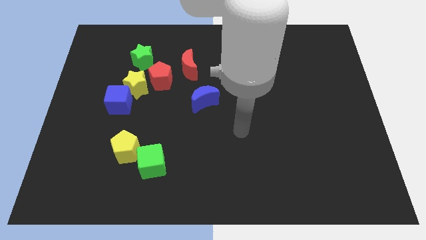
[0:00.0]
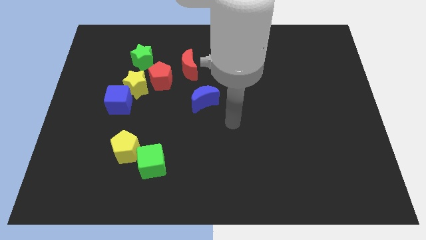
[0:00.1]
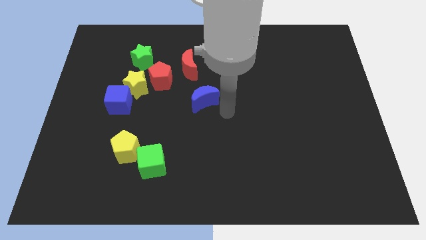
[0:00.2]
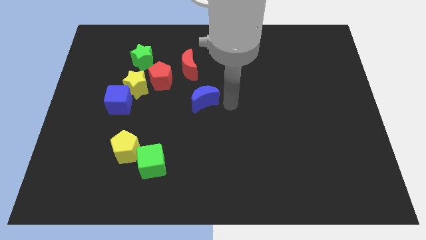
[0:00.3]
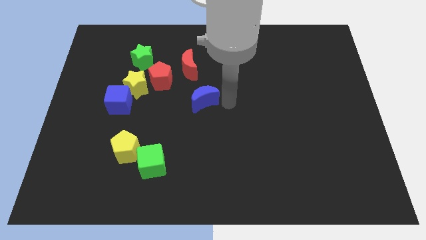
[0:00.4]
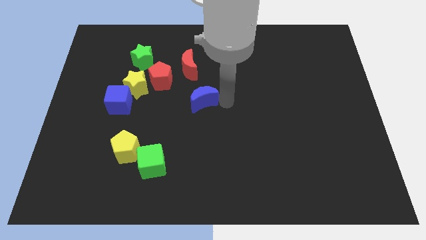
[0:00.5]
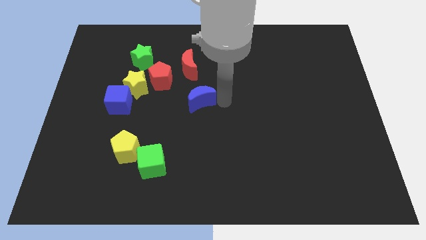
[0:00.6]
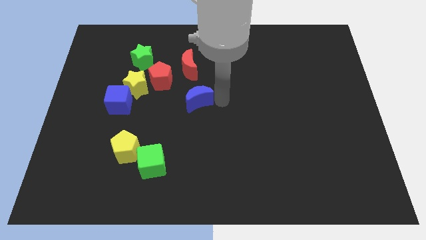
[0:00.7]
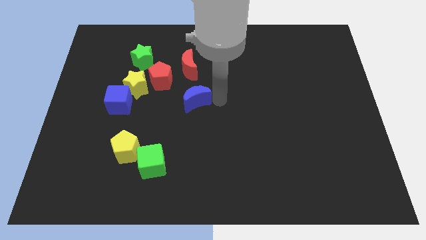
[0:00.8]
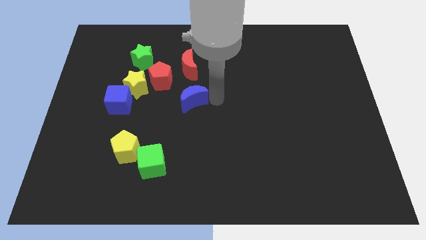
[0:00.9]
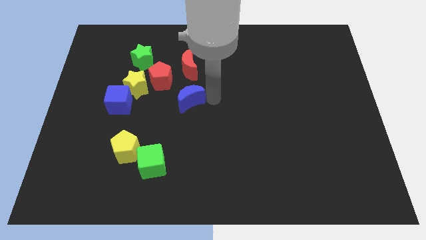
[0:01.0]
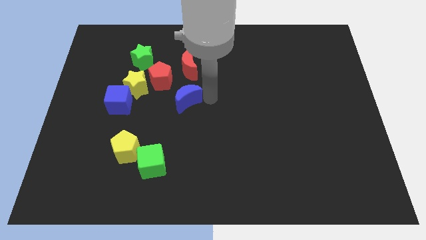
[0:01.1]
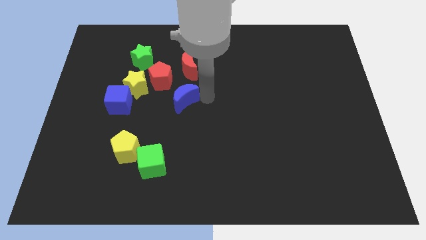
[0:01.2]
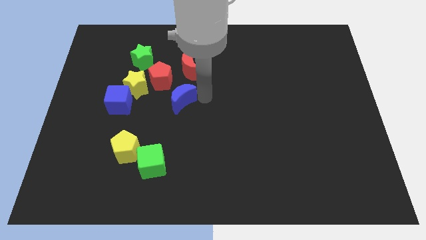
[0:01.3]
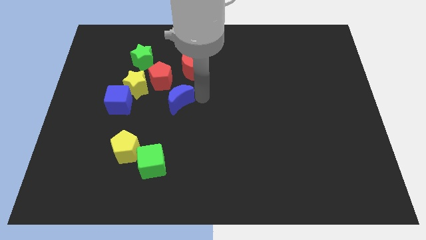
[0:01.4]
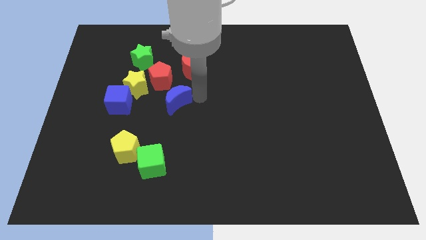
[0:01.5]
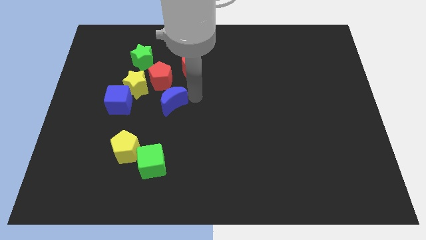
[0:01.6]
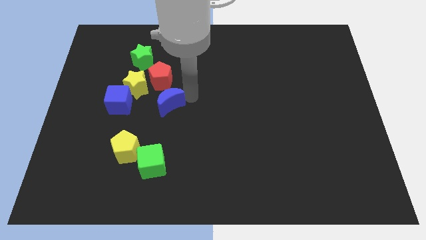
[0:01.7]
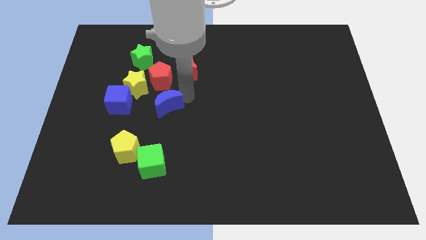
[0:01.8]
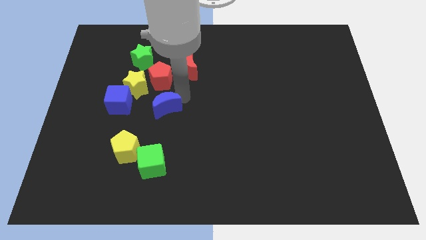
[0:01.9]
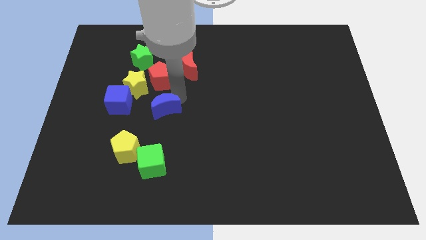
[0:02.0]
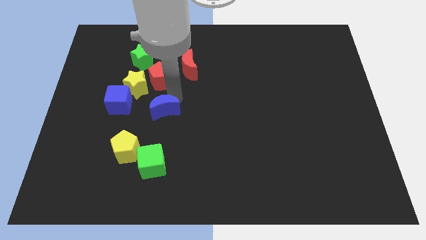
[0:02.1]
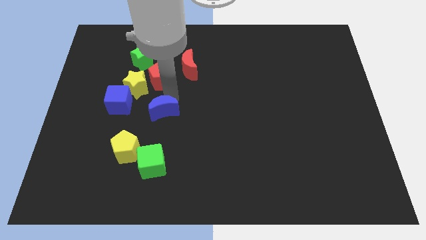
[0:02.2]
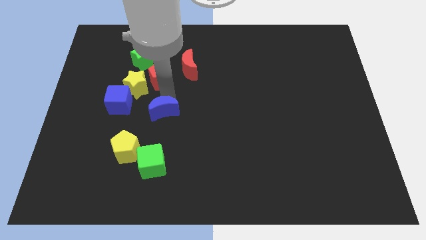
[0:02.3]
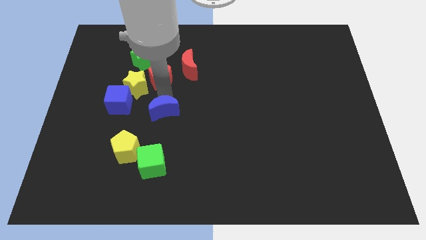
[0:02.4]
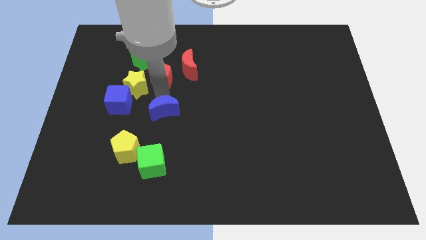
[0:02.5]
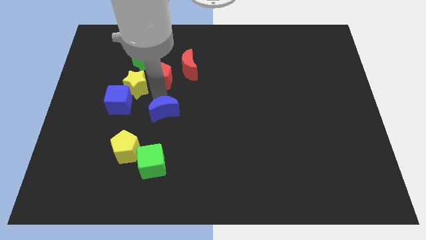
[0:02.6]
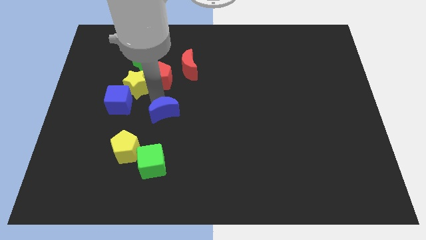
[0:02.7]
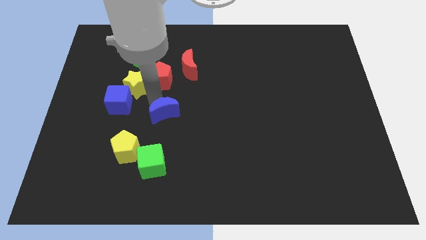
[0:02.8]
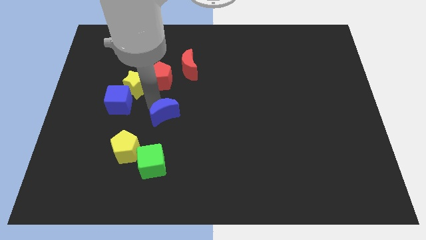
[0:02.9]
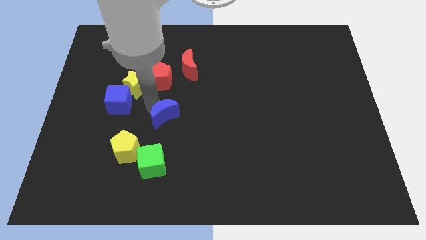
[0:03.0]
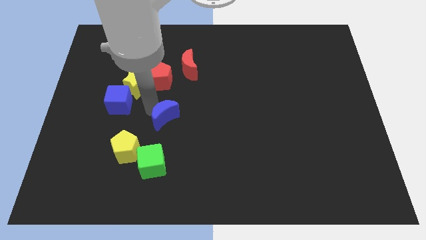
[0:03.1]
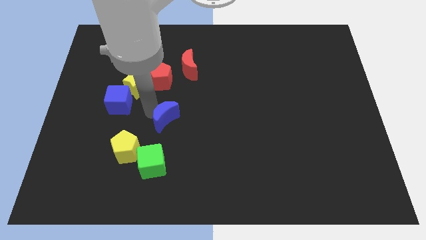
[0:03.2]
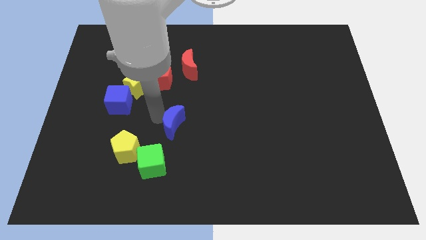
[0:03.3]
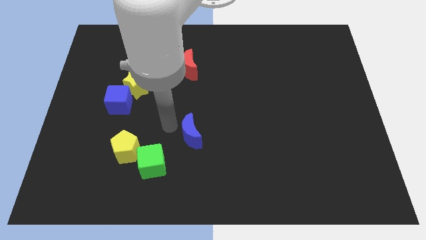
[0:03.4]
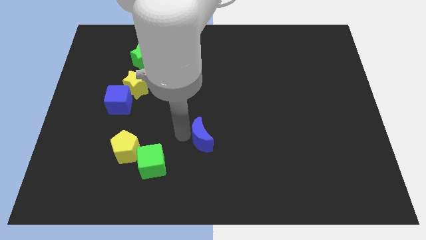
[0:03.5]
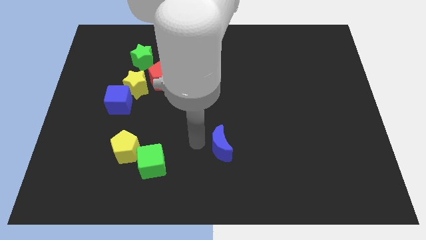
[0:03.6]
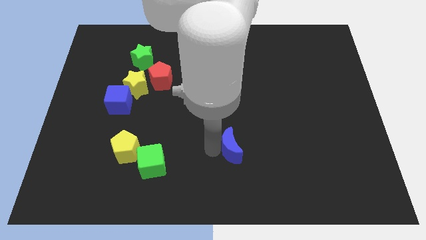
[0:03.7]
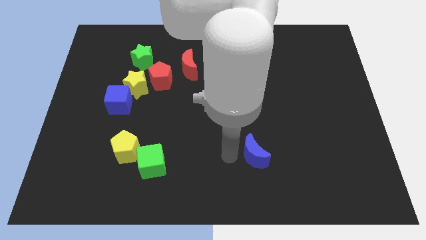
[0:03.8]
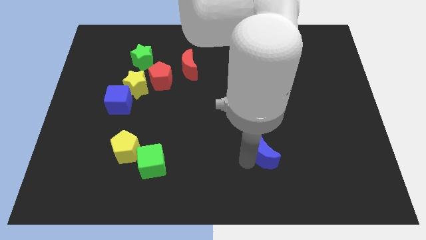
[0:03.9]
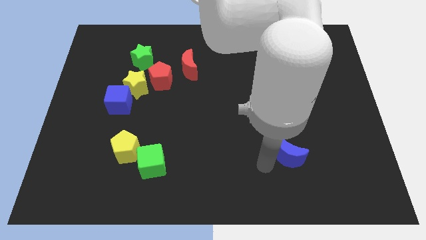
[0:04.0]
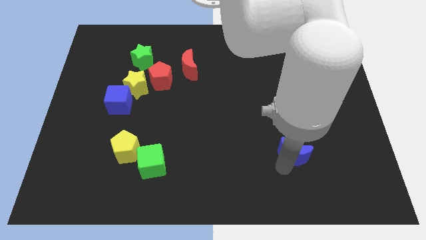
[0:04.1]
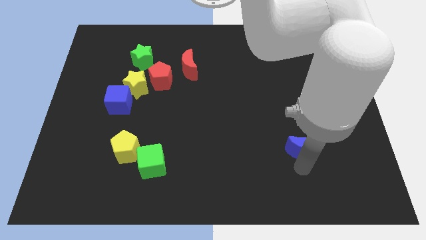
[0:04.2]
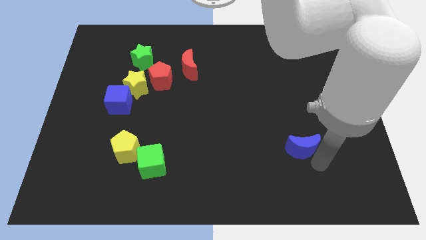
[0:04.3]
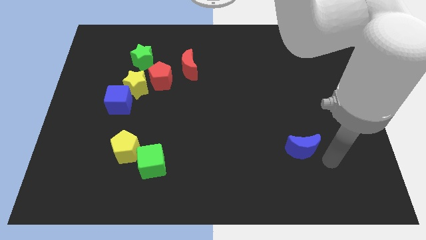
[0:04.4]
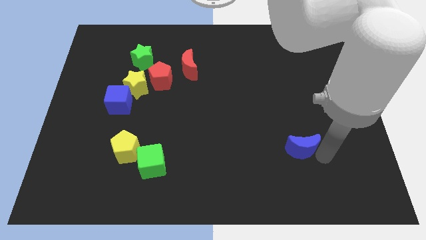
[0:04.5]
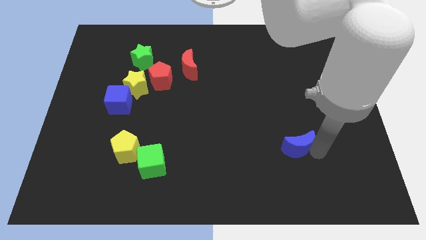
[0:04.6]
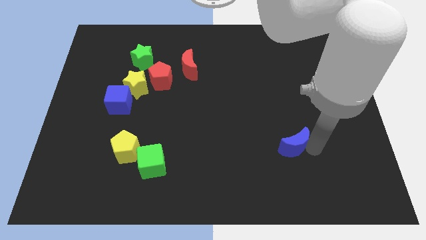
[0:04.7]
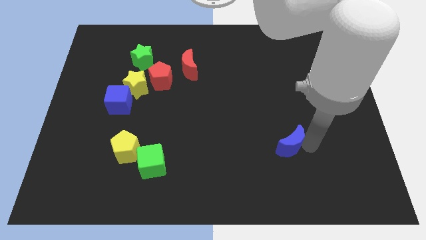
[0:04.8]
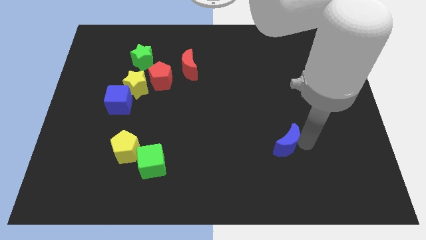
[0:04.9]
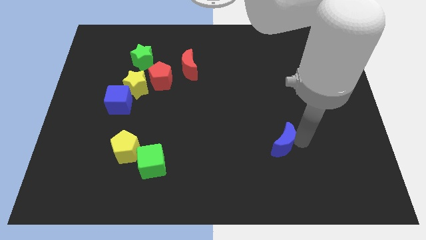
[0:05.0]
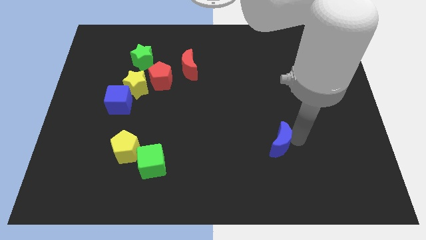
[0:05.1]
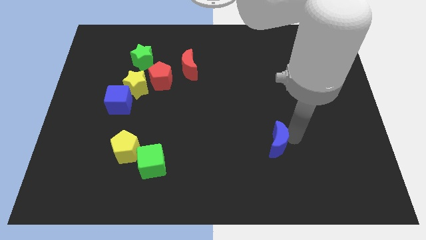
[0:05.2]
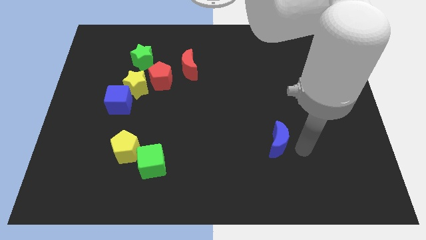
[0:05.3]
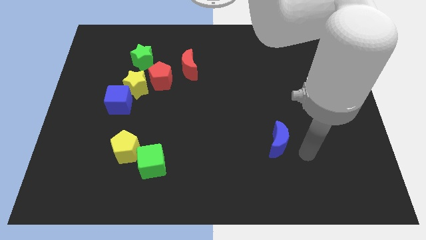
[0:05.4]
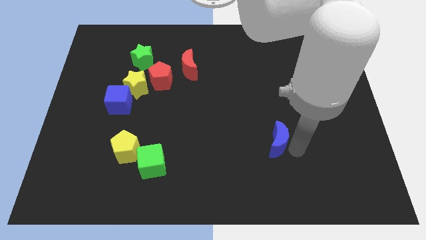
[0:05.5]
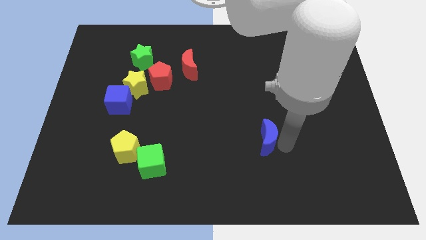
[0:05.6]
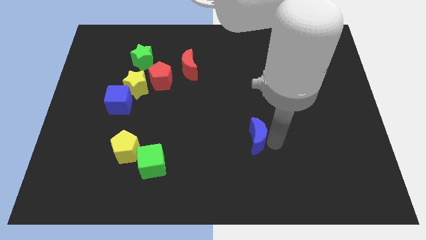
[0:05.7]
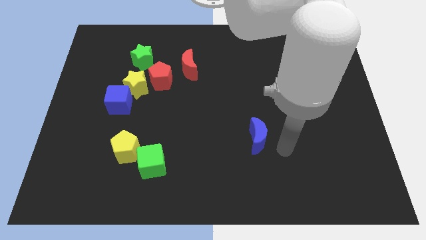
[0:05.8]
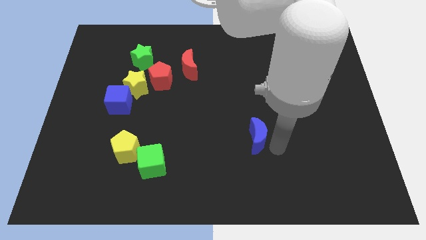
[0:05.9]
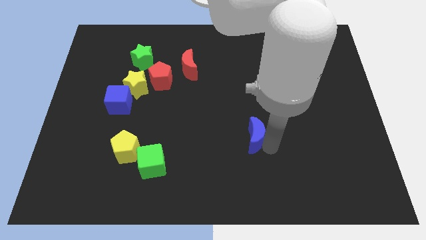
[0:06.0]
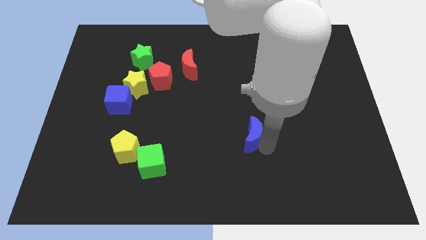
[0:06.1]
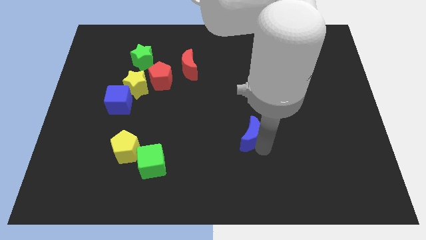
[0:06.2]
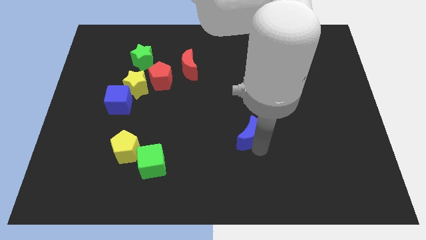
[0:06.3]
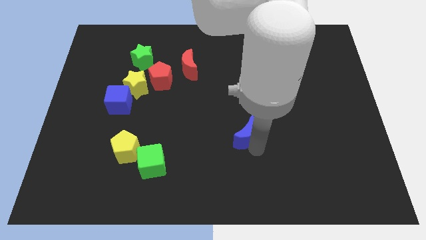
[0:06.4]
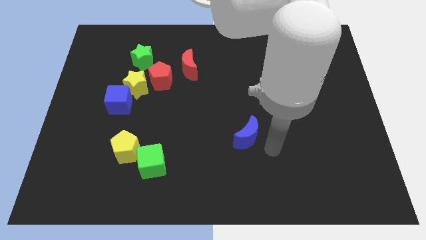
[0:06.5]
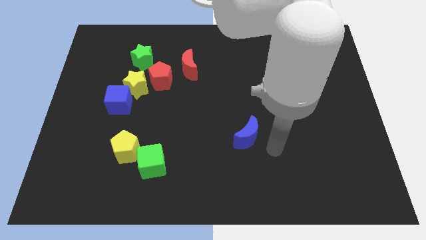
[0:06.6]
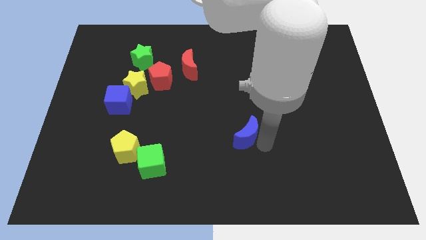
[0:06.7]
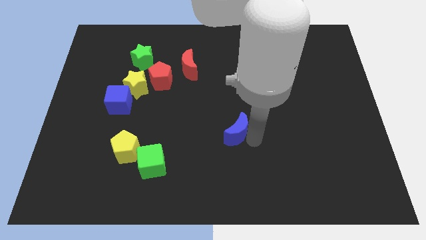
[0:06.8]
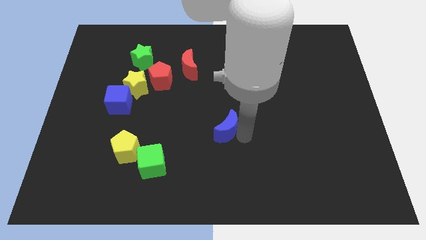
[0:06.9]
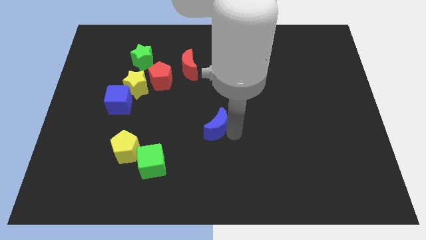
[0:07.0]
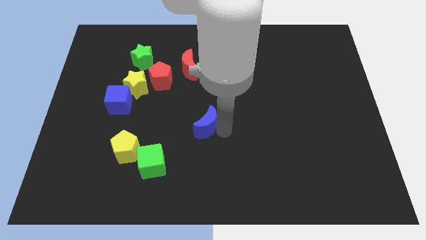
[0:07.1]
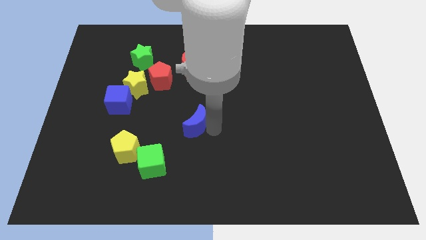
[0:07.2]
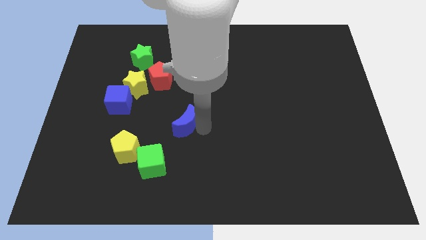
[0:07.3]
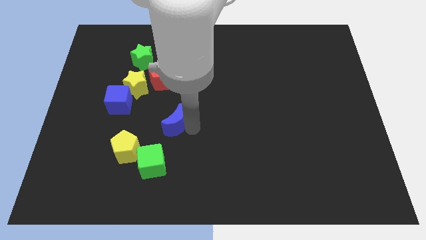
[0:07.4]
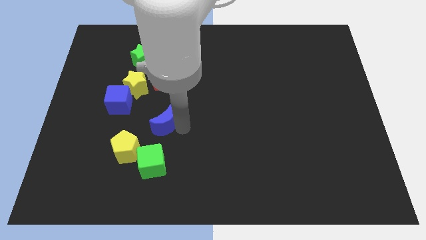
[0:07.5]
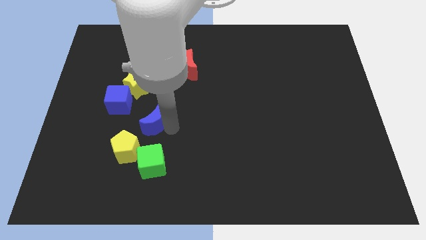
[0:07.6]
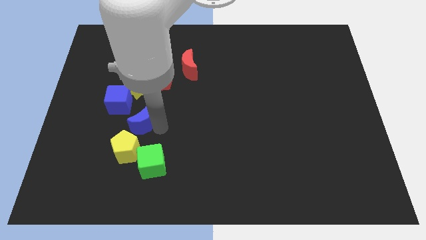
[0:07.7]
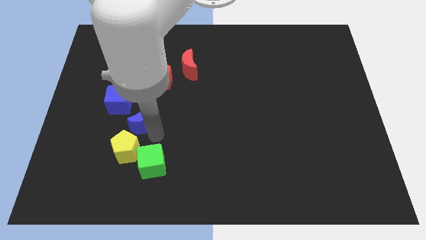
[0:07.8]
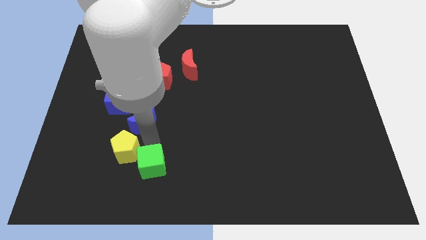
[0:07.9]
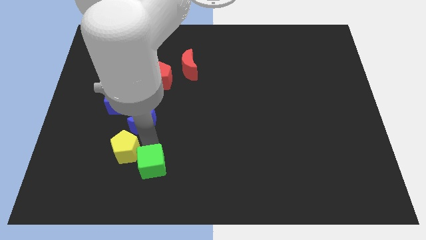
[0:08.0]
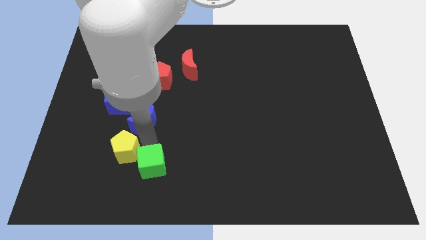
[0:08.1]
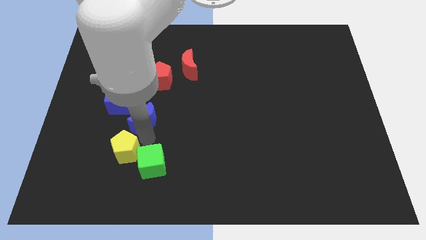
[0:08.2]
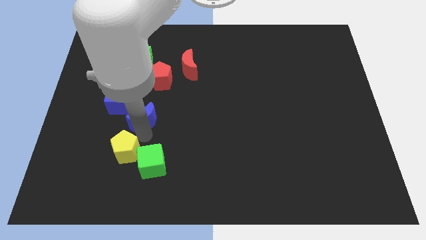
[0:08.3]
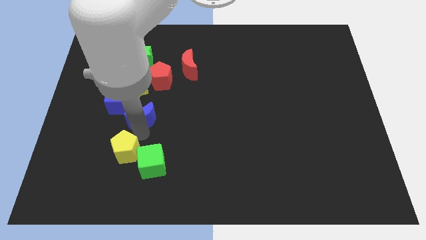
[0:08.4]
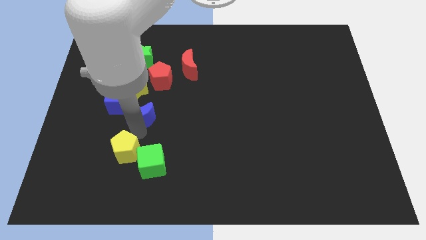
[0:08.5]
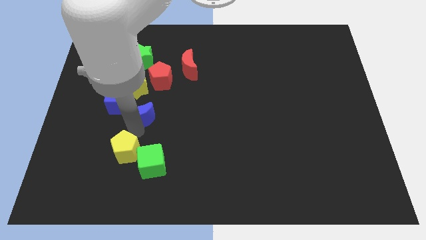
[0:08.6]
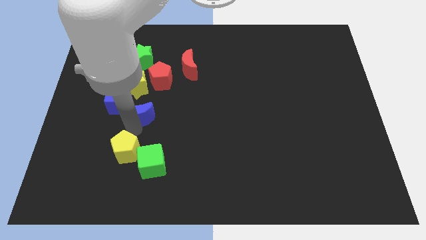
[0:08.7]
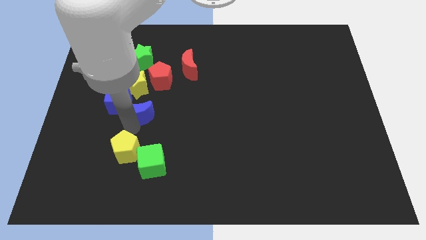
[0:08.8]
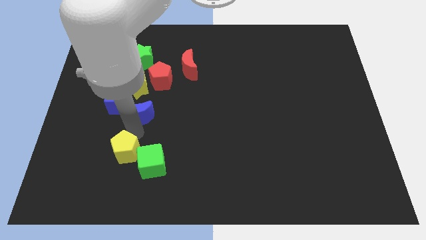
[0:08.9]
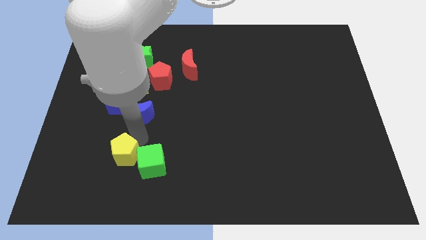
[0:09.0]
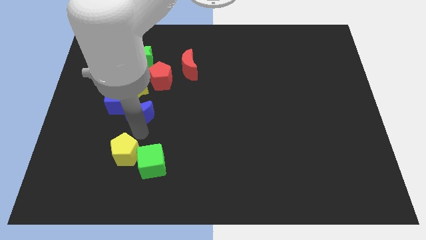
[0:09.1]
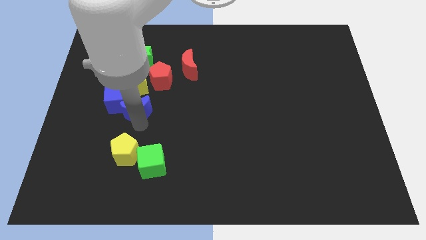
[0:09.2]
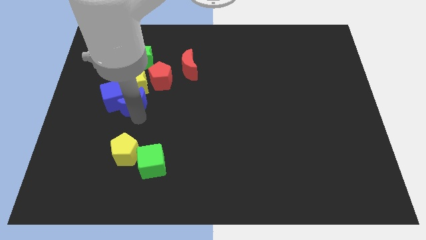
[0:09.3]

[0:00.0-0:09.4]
put the blue moon towards the yellow star
